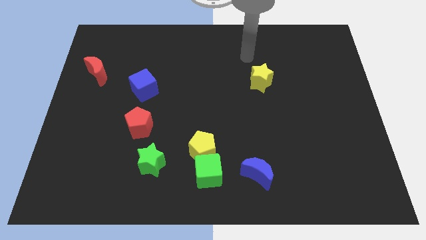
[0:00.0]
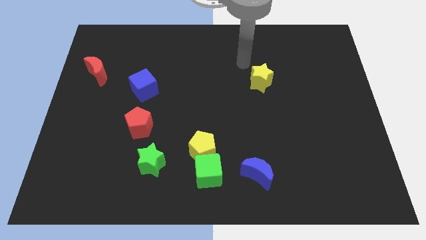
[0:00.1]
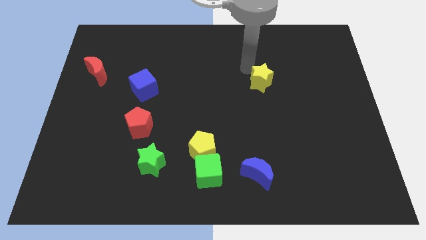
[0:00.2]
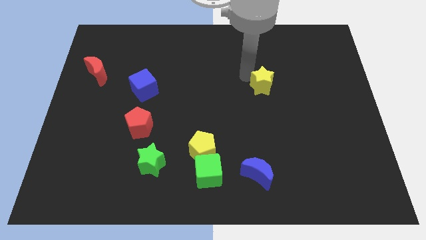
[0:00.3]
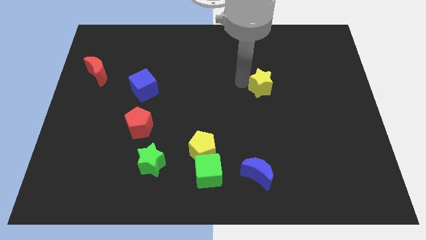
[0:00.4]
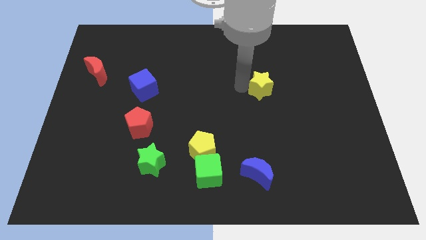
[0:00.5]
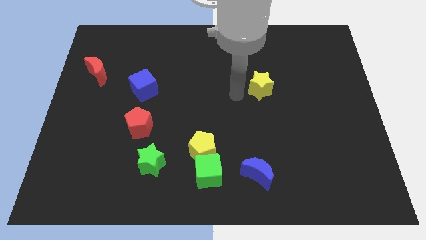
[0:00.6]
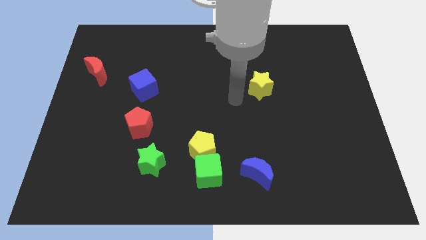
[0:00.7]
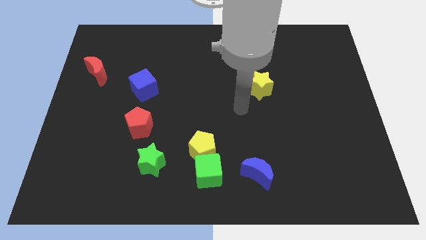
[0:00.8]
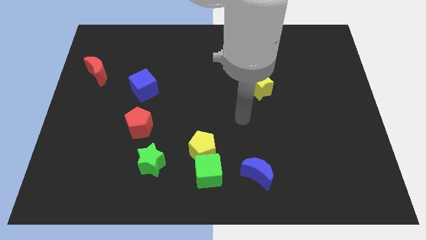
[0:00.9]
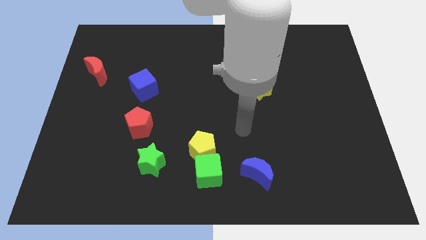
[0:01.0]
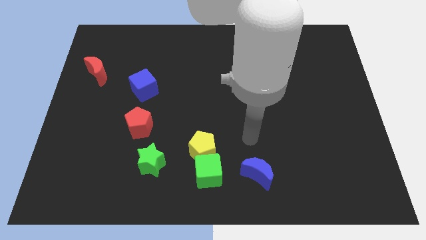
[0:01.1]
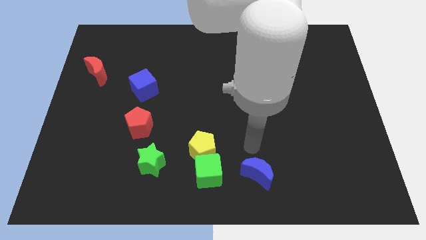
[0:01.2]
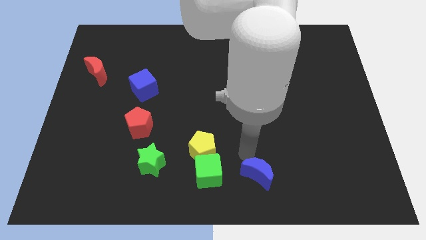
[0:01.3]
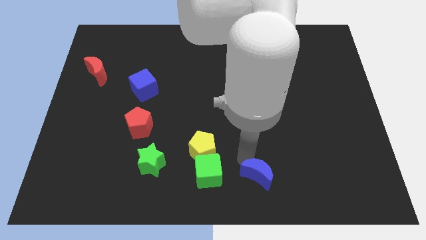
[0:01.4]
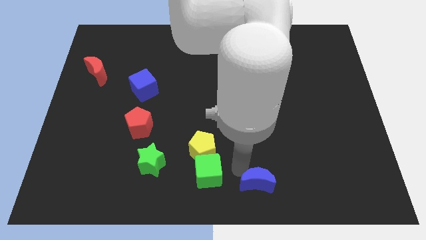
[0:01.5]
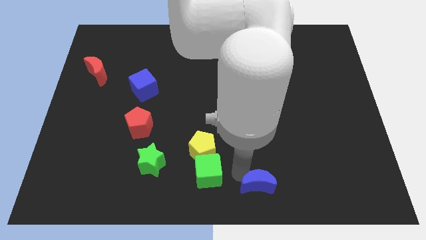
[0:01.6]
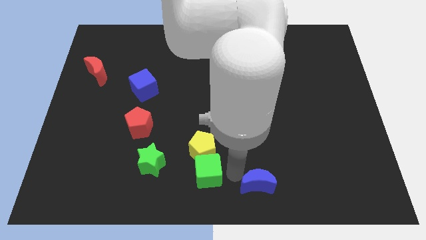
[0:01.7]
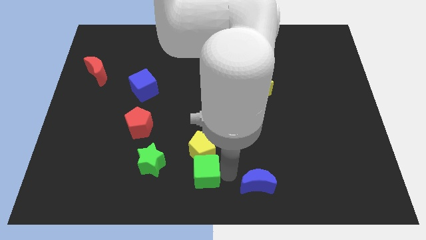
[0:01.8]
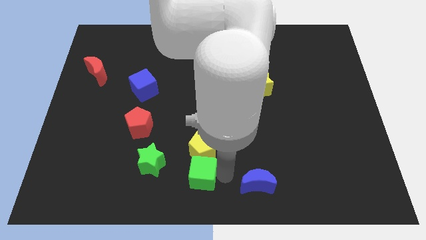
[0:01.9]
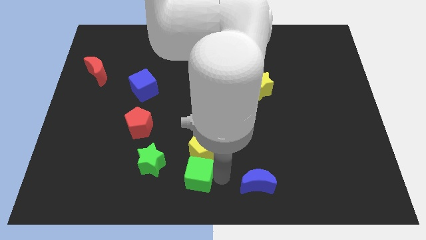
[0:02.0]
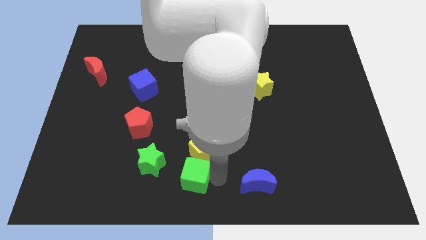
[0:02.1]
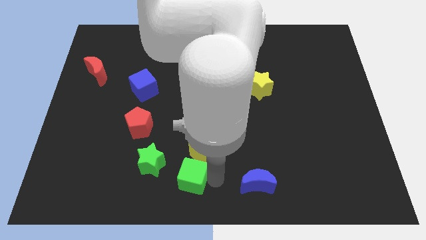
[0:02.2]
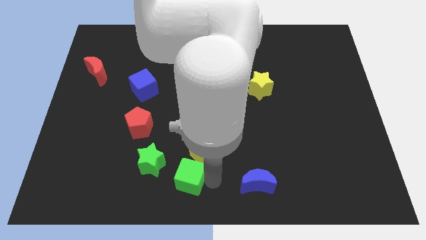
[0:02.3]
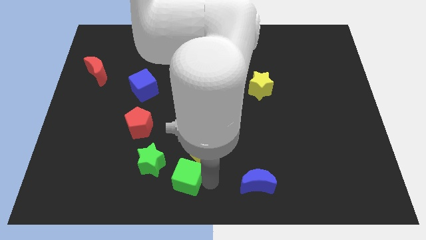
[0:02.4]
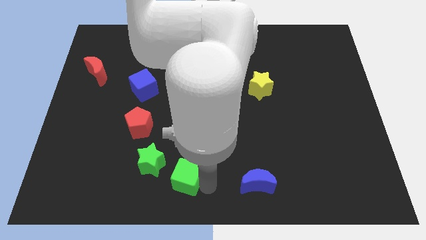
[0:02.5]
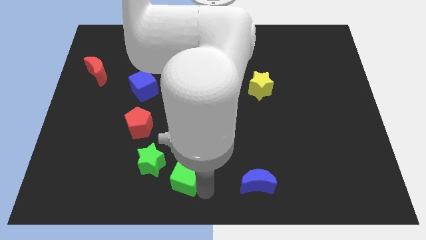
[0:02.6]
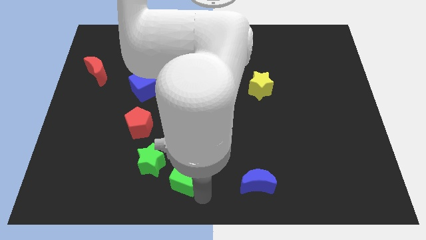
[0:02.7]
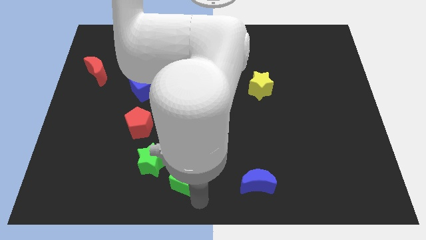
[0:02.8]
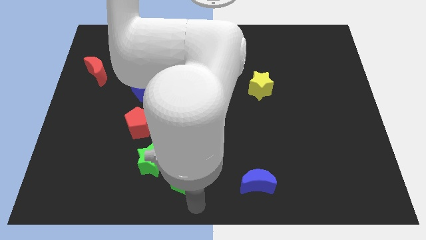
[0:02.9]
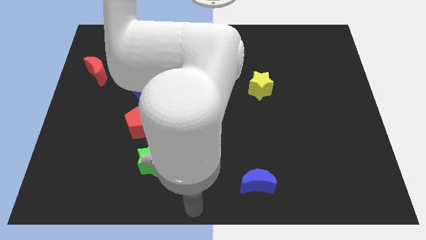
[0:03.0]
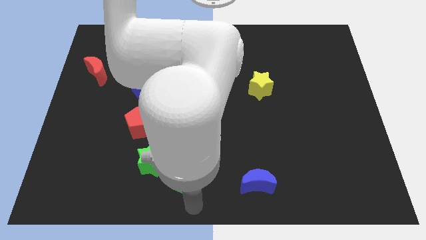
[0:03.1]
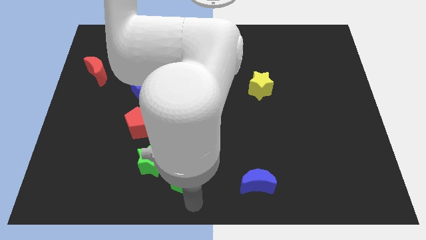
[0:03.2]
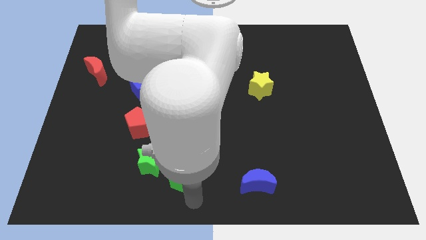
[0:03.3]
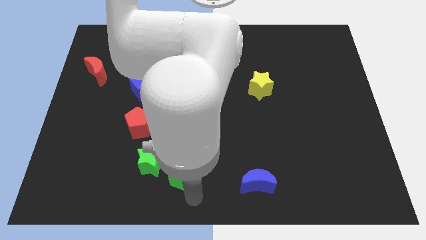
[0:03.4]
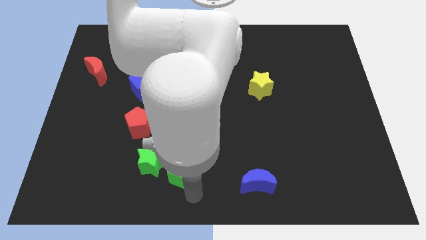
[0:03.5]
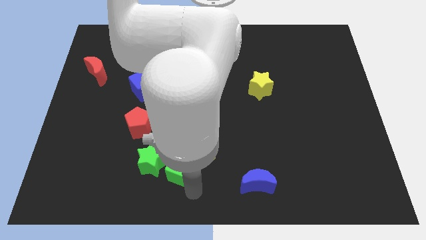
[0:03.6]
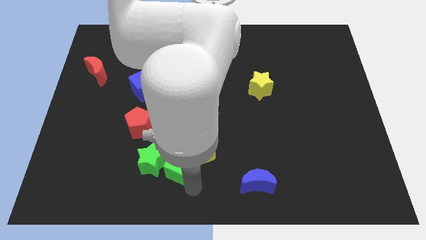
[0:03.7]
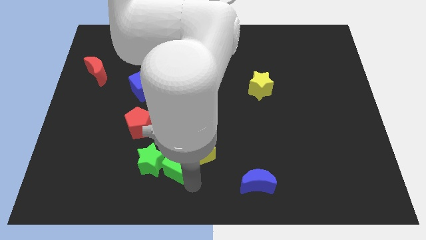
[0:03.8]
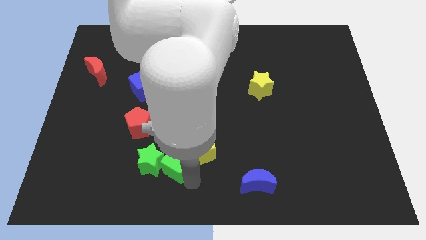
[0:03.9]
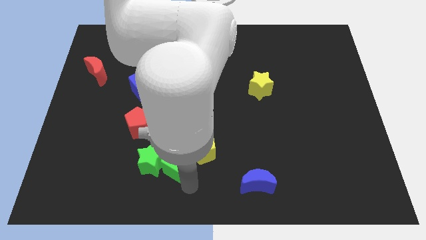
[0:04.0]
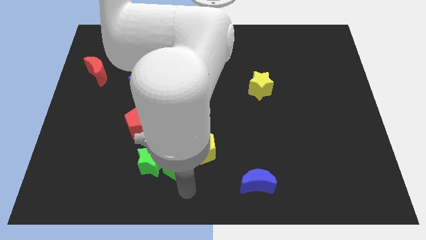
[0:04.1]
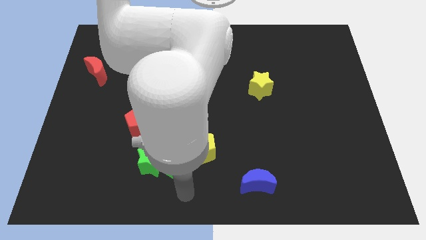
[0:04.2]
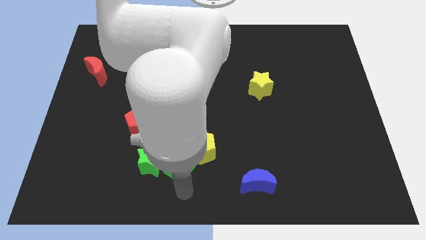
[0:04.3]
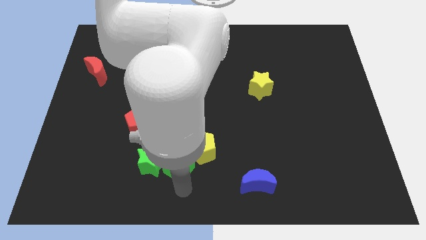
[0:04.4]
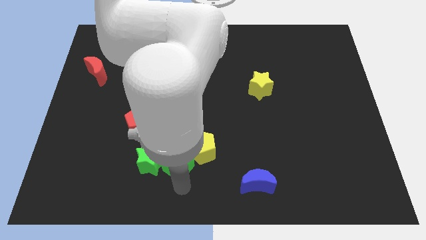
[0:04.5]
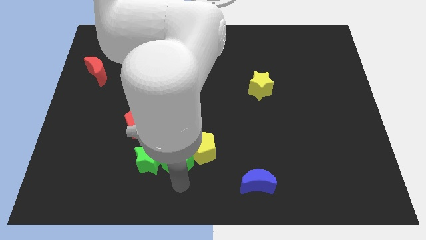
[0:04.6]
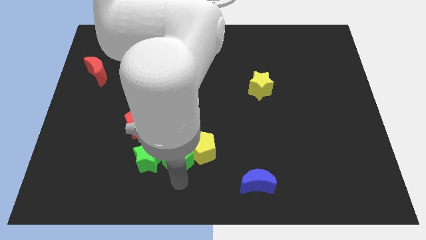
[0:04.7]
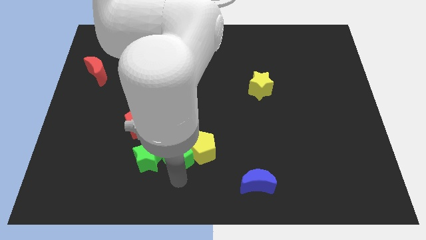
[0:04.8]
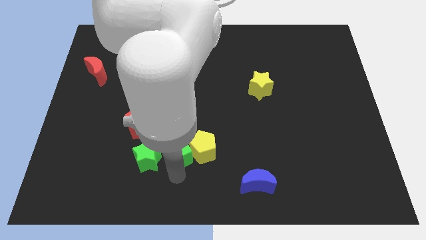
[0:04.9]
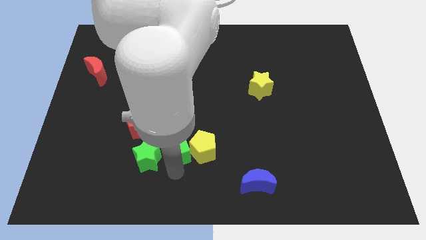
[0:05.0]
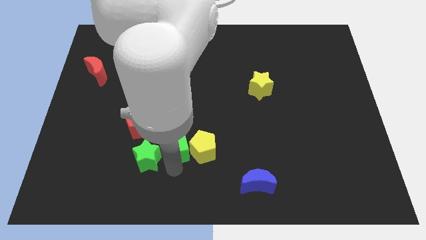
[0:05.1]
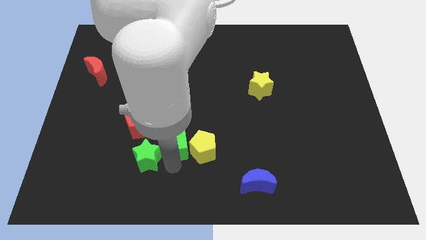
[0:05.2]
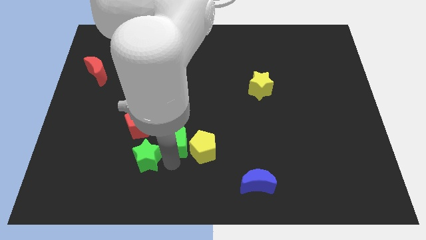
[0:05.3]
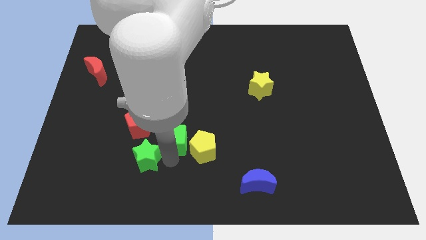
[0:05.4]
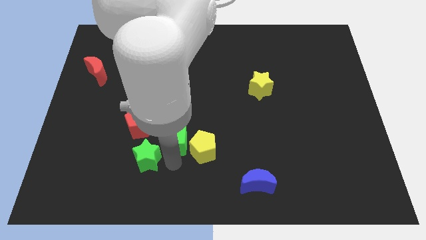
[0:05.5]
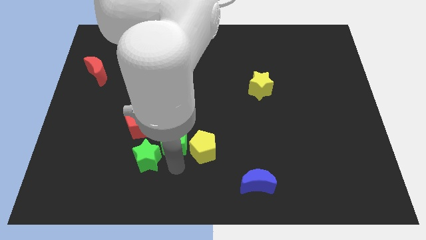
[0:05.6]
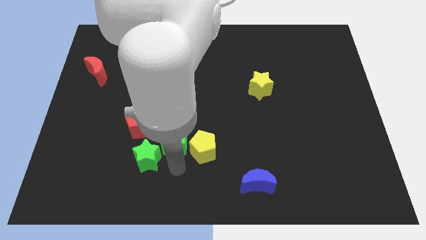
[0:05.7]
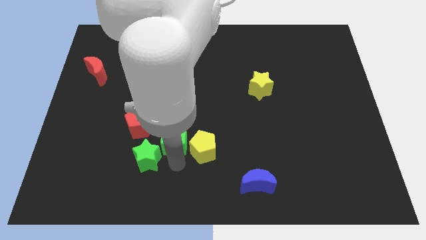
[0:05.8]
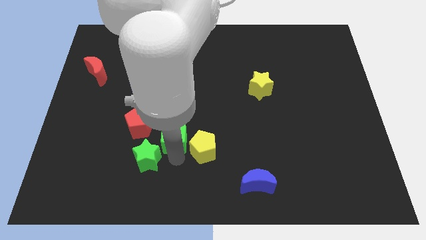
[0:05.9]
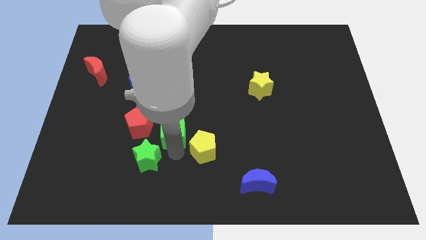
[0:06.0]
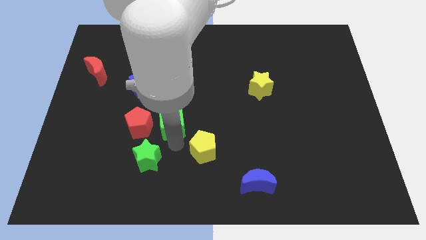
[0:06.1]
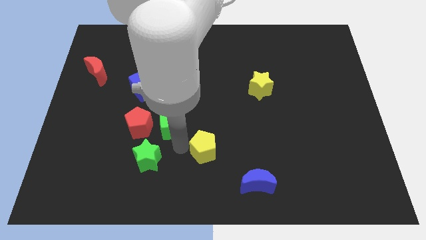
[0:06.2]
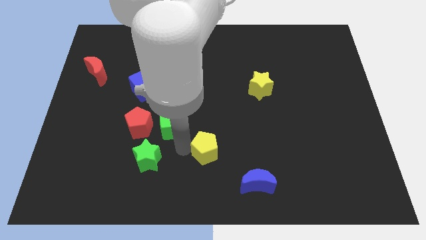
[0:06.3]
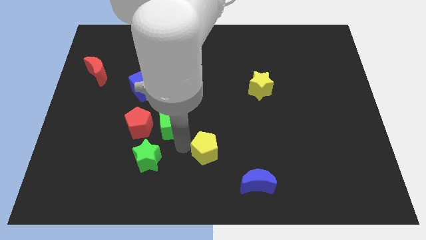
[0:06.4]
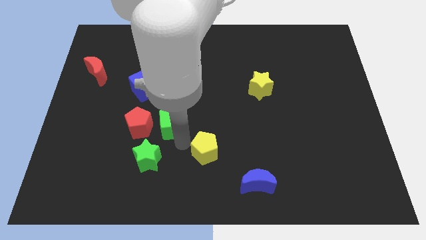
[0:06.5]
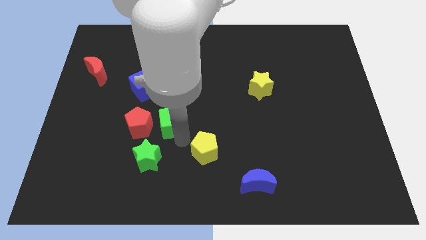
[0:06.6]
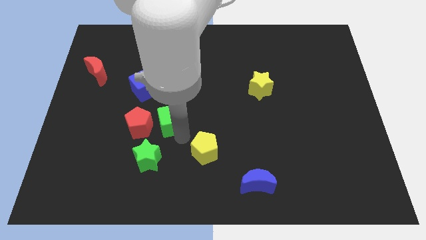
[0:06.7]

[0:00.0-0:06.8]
put the green cube diagonally up and to the right of the red pentagon
